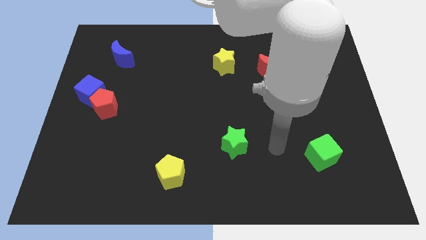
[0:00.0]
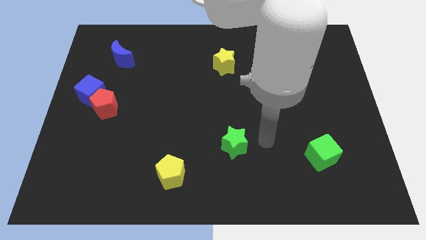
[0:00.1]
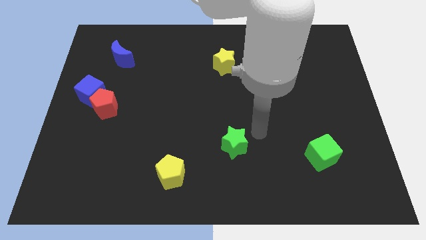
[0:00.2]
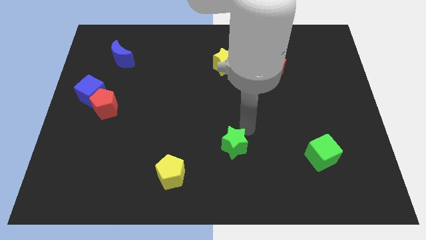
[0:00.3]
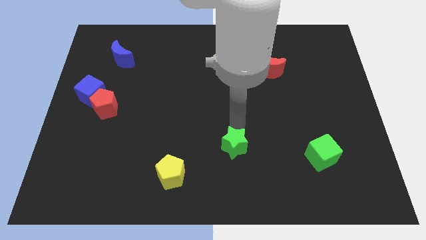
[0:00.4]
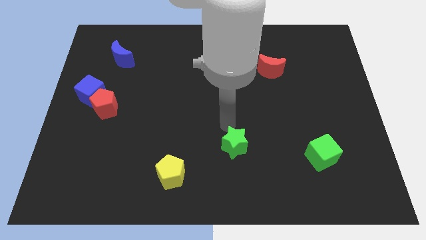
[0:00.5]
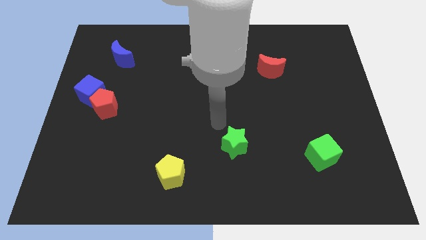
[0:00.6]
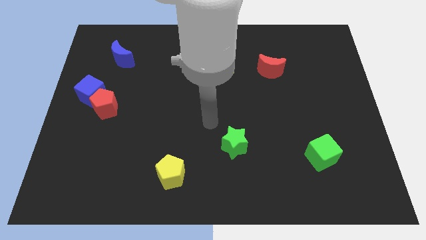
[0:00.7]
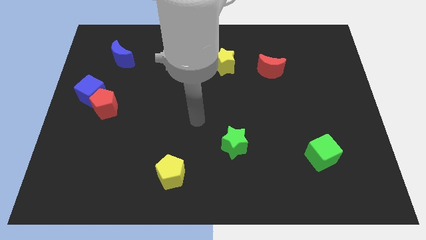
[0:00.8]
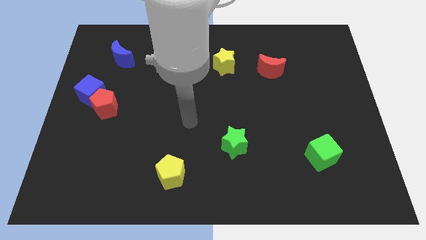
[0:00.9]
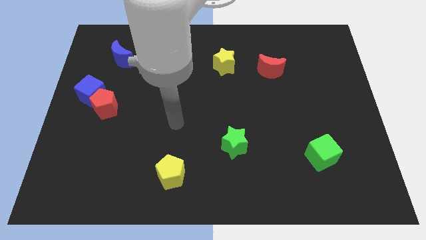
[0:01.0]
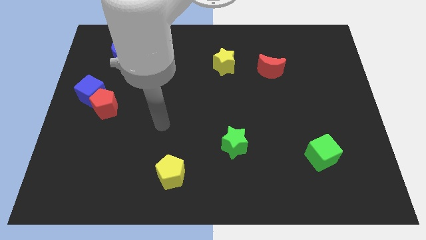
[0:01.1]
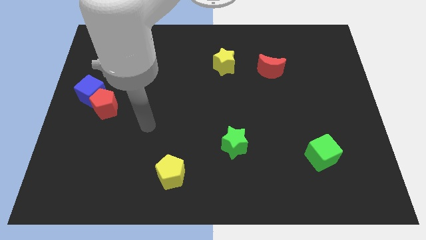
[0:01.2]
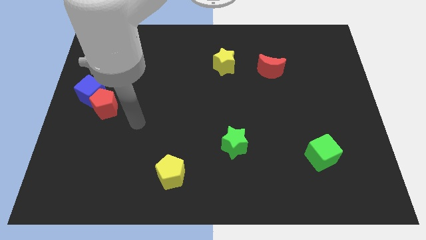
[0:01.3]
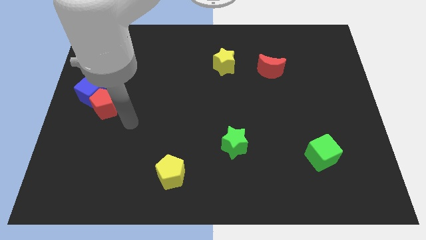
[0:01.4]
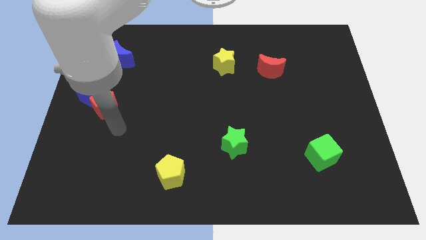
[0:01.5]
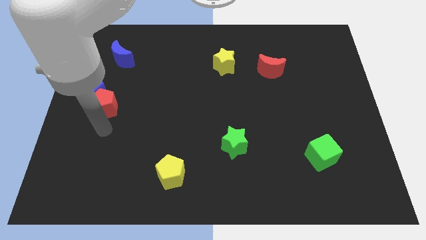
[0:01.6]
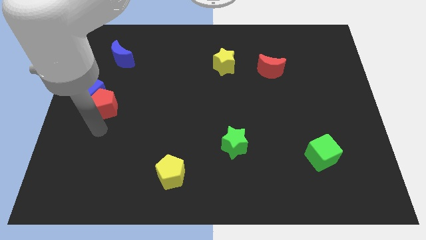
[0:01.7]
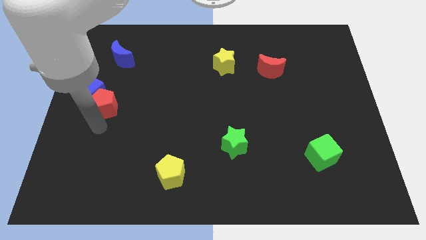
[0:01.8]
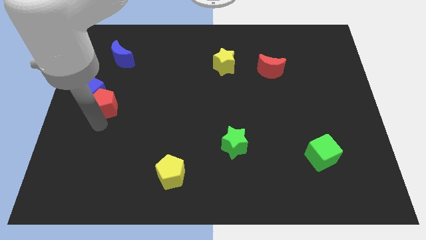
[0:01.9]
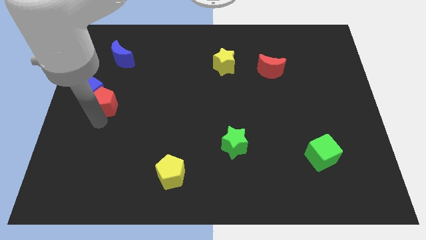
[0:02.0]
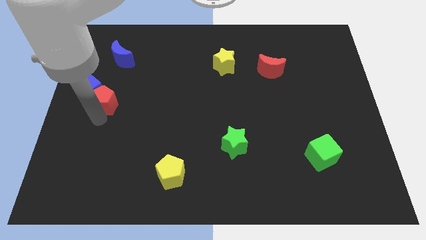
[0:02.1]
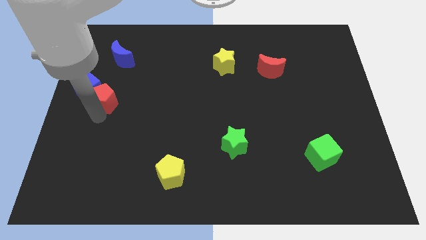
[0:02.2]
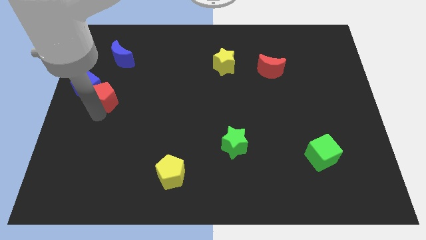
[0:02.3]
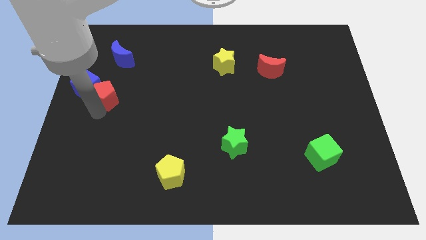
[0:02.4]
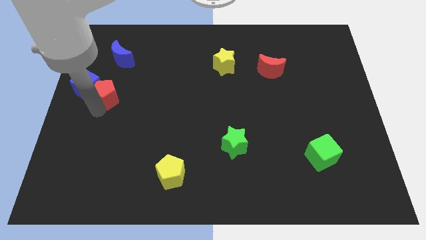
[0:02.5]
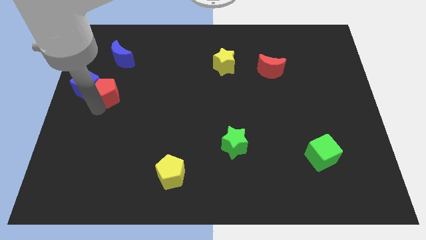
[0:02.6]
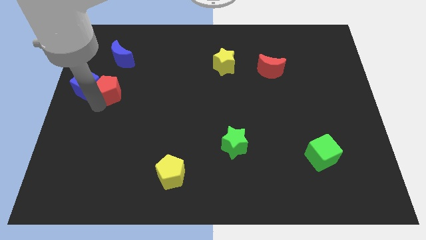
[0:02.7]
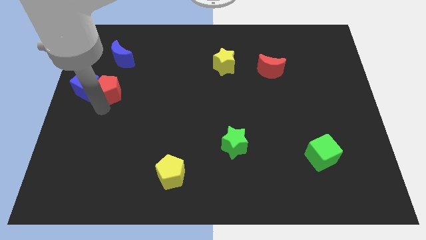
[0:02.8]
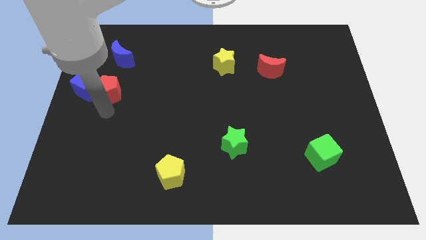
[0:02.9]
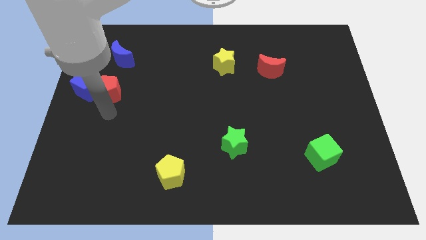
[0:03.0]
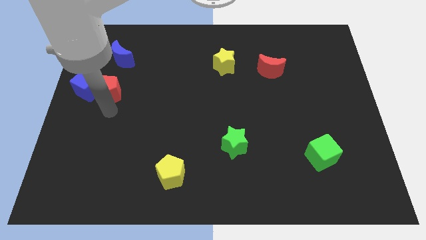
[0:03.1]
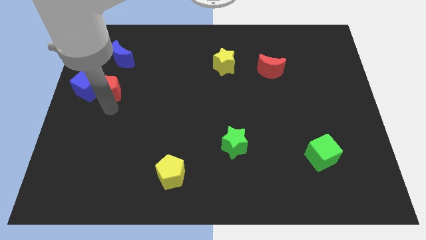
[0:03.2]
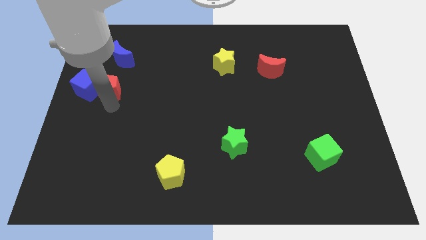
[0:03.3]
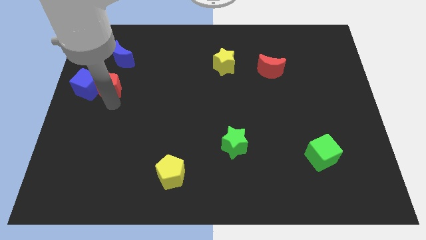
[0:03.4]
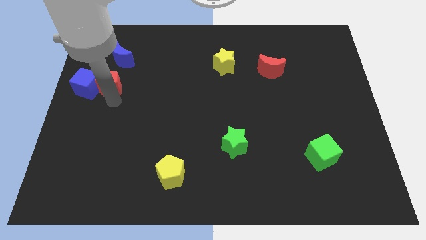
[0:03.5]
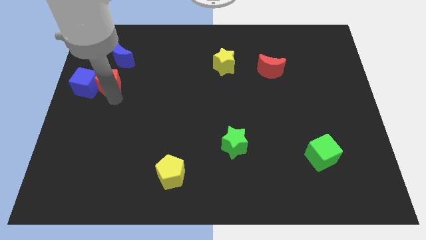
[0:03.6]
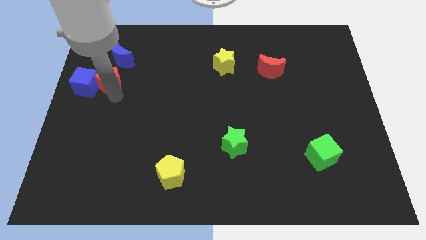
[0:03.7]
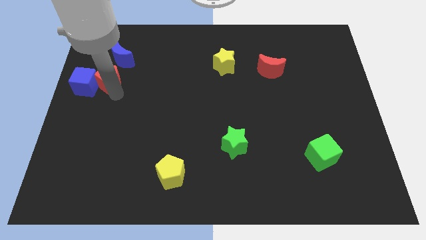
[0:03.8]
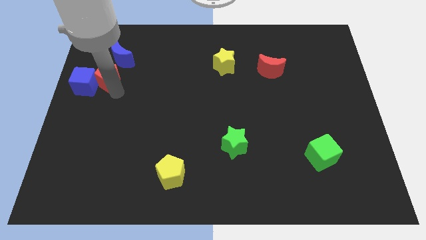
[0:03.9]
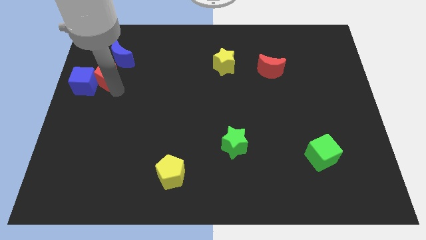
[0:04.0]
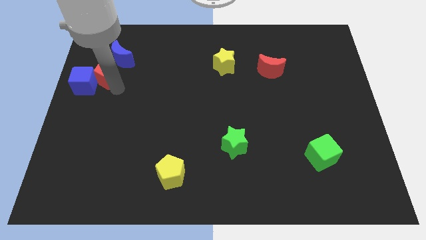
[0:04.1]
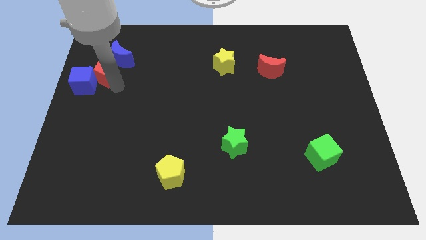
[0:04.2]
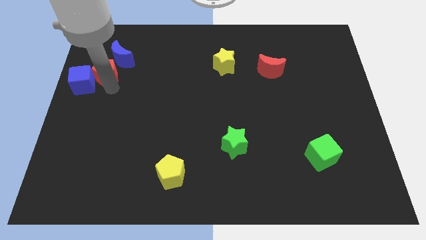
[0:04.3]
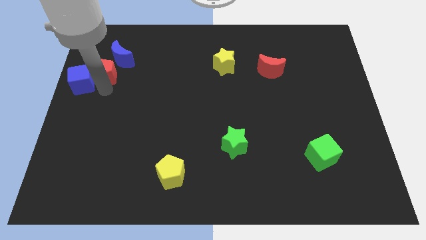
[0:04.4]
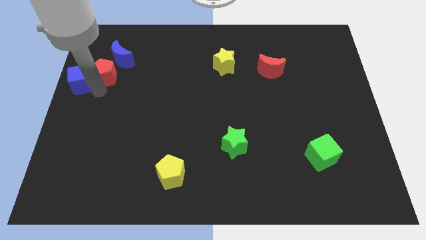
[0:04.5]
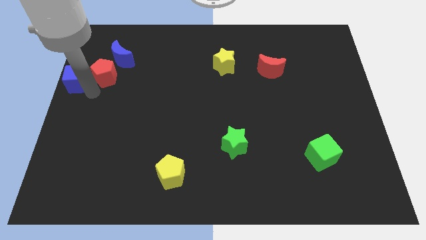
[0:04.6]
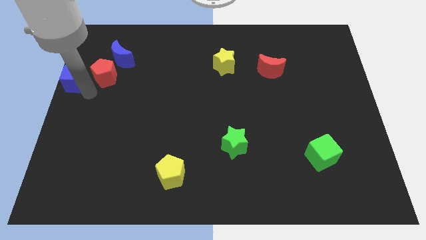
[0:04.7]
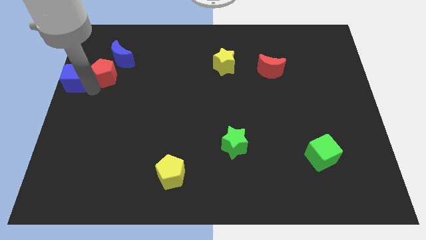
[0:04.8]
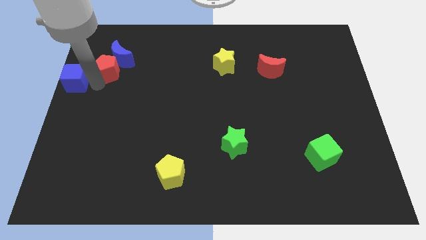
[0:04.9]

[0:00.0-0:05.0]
move the red pentagon to the blue moon

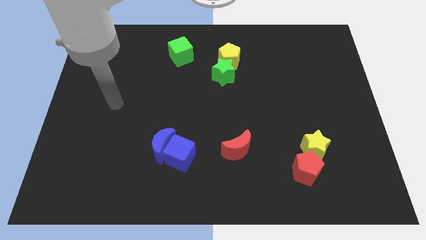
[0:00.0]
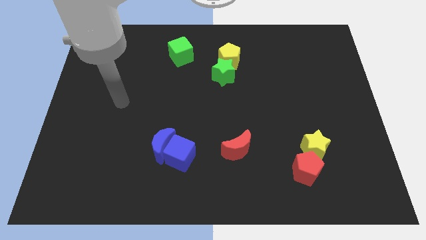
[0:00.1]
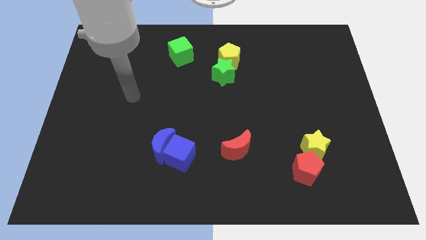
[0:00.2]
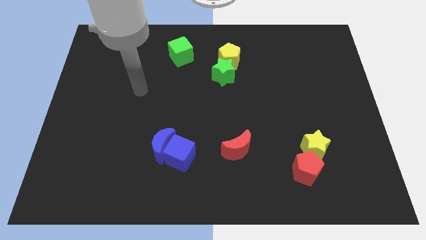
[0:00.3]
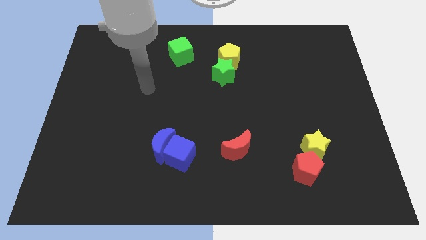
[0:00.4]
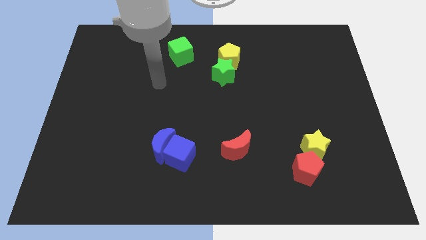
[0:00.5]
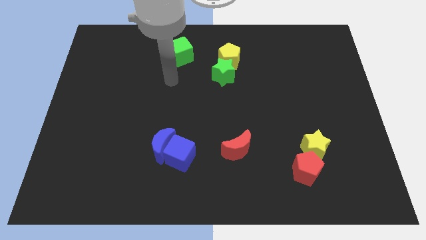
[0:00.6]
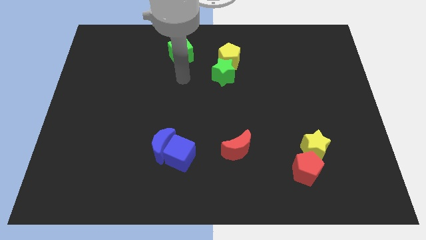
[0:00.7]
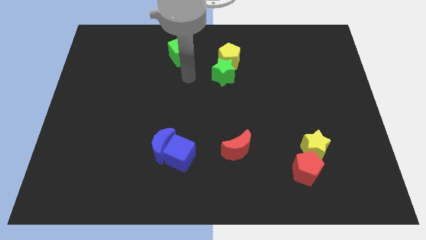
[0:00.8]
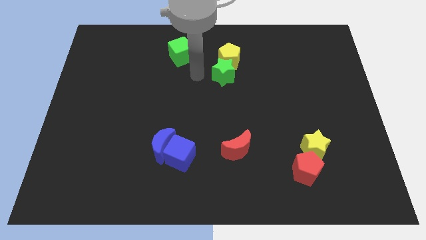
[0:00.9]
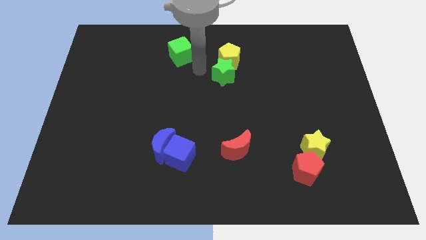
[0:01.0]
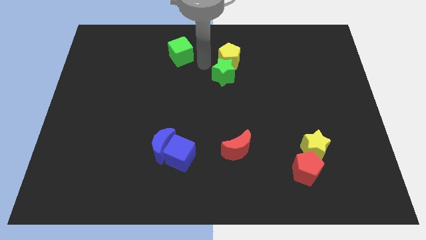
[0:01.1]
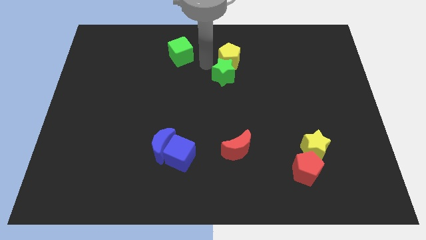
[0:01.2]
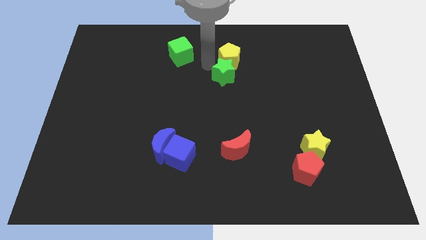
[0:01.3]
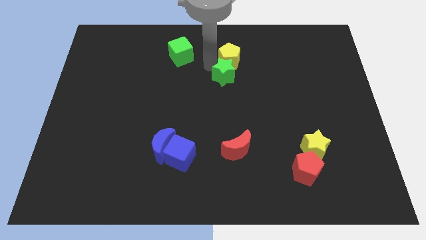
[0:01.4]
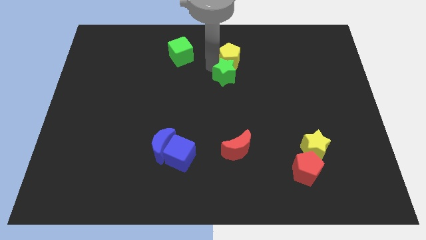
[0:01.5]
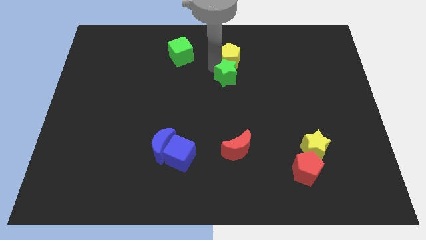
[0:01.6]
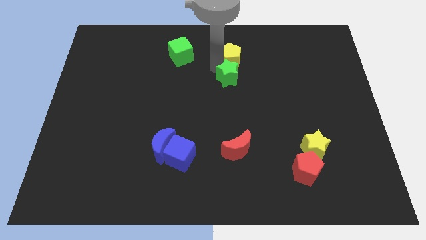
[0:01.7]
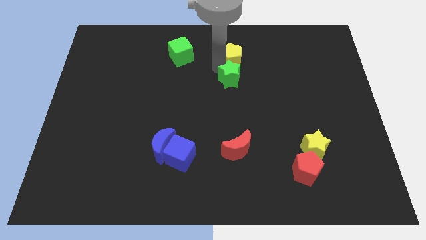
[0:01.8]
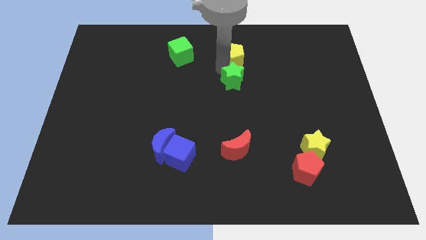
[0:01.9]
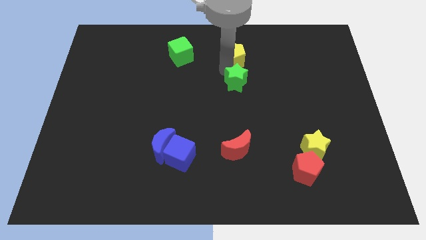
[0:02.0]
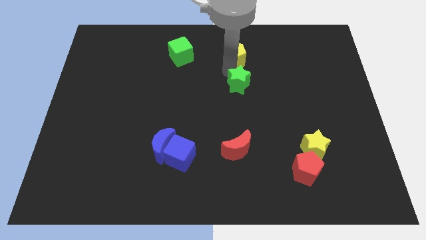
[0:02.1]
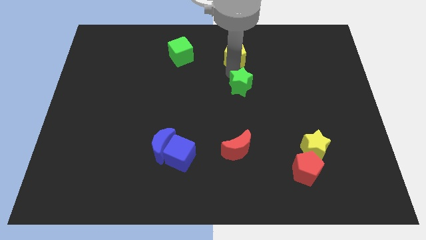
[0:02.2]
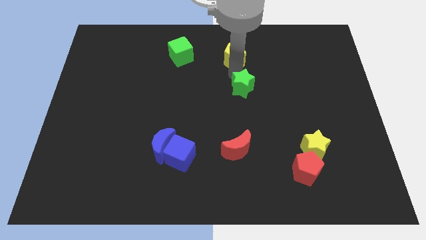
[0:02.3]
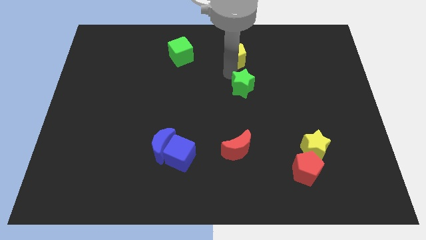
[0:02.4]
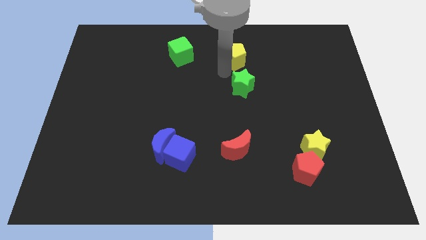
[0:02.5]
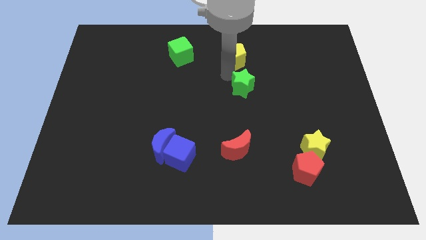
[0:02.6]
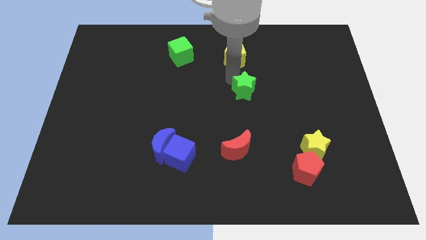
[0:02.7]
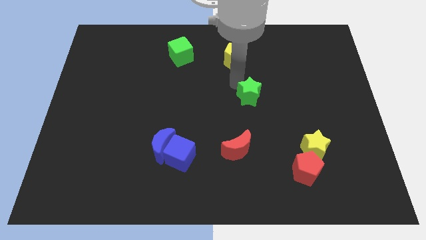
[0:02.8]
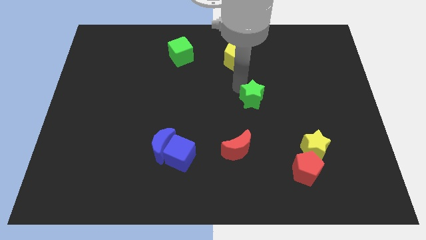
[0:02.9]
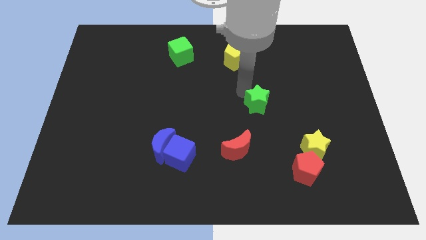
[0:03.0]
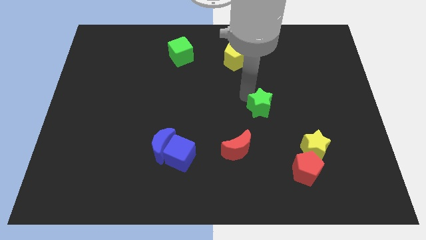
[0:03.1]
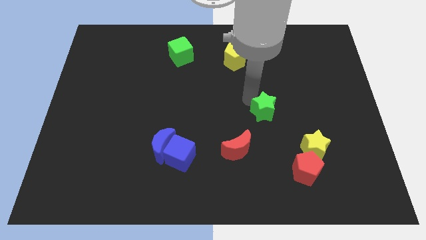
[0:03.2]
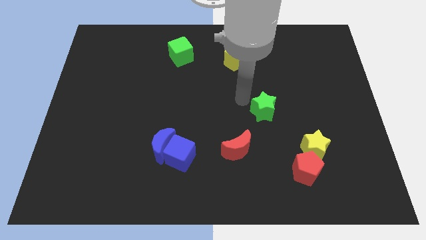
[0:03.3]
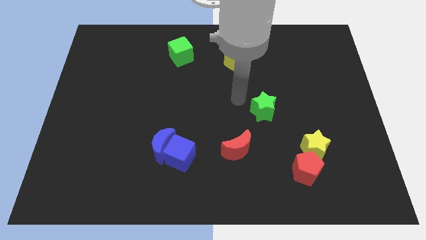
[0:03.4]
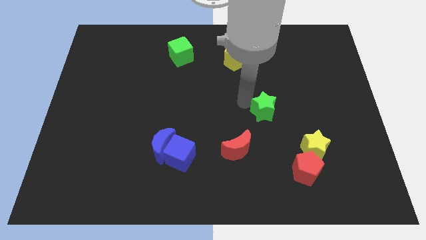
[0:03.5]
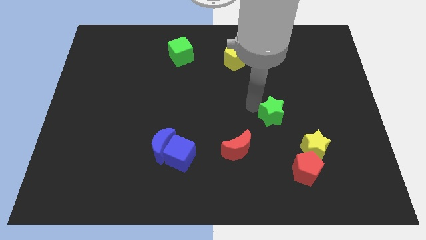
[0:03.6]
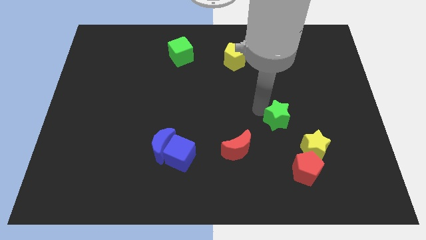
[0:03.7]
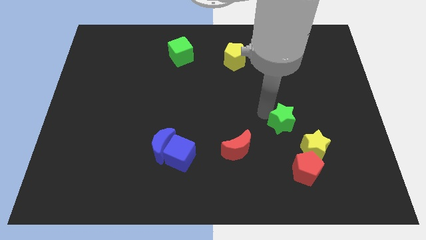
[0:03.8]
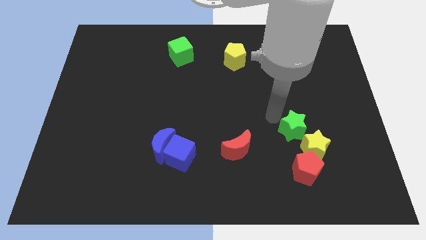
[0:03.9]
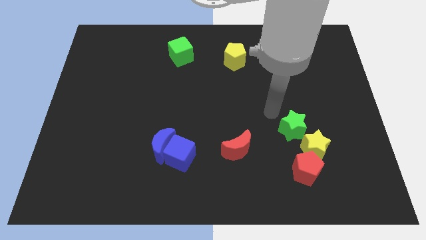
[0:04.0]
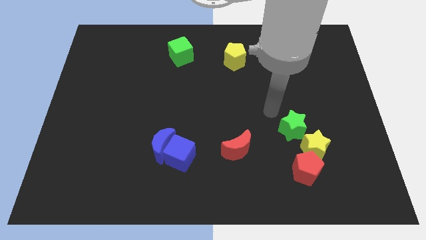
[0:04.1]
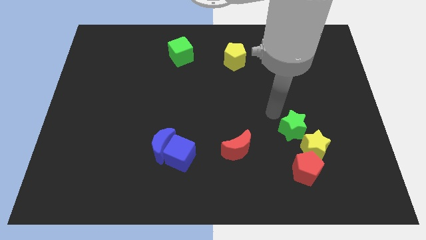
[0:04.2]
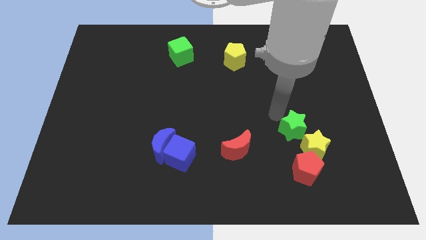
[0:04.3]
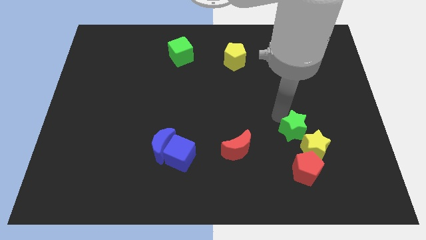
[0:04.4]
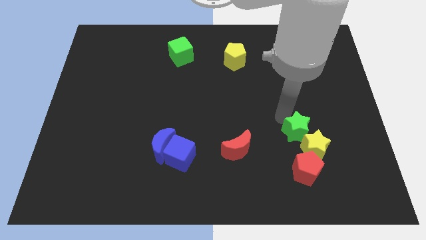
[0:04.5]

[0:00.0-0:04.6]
move the green star towards the yellow star
